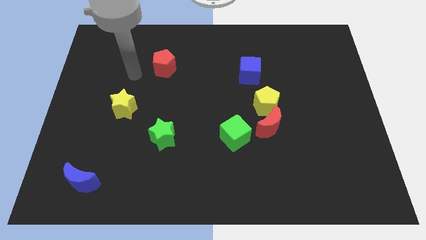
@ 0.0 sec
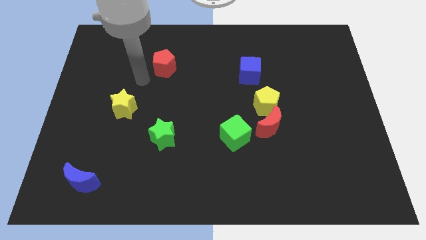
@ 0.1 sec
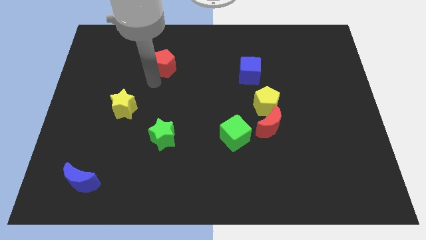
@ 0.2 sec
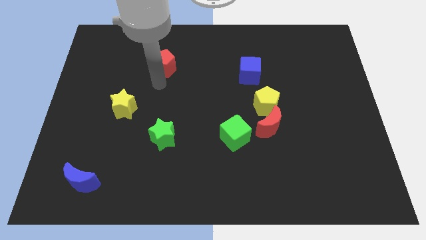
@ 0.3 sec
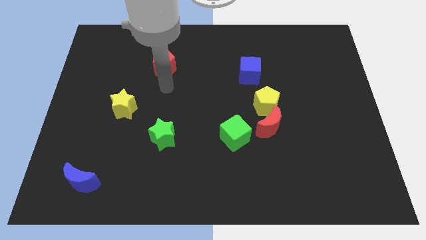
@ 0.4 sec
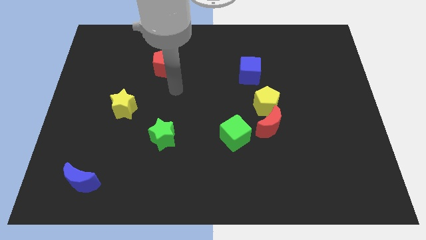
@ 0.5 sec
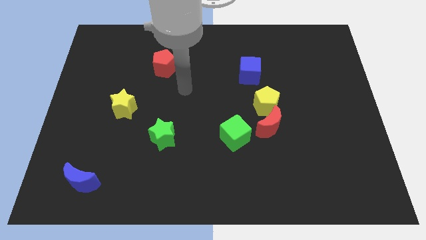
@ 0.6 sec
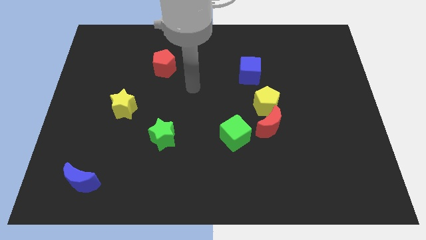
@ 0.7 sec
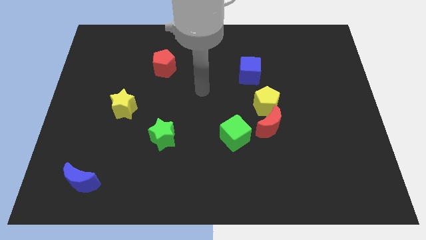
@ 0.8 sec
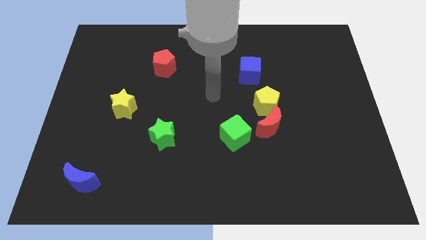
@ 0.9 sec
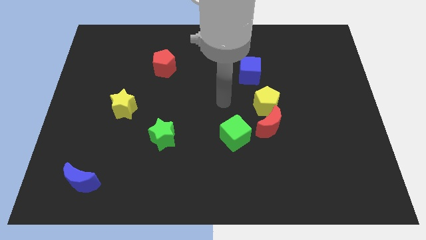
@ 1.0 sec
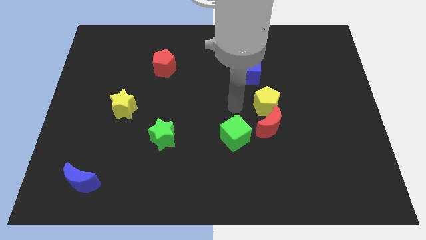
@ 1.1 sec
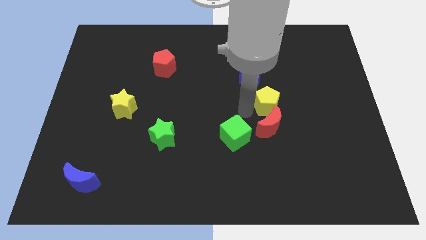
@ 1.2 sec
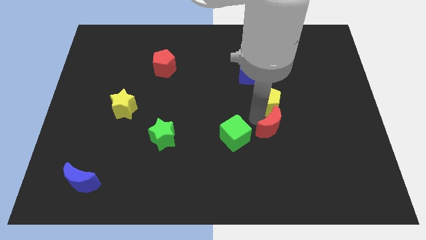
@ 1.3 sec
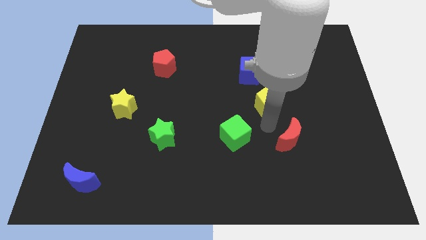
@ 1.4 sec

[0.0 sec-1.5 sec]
separate the yellow pentagon from the red moon

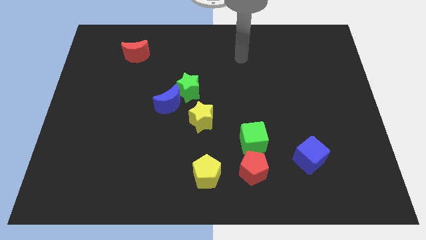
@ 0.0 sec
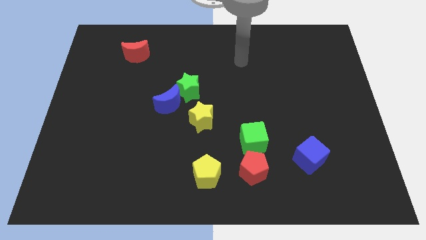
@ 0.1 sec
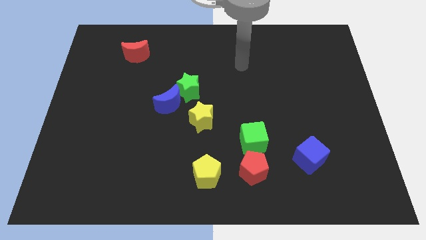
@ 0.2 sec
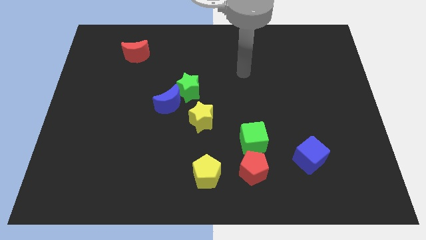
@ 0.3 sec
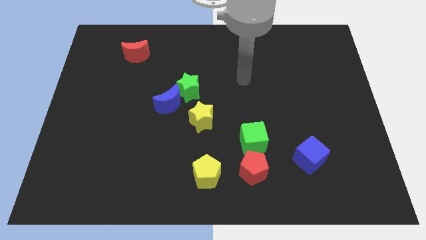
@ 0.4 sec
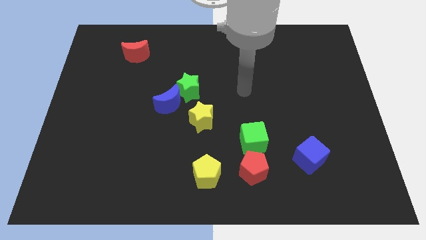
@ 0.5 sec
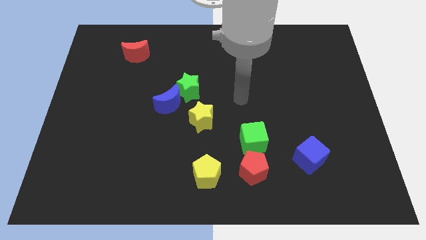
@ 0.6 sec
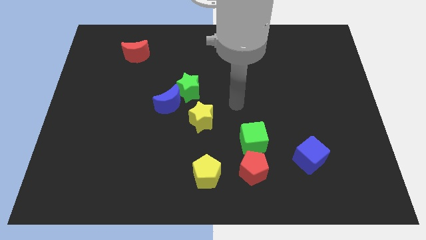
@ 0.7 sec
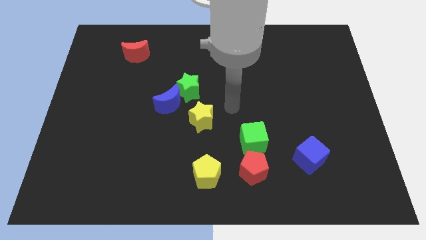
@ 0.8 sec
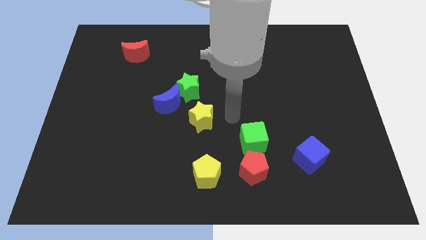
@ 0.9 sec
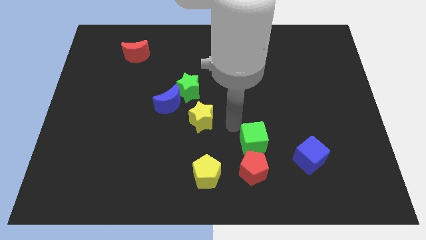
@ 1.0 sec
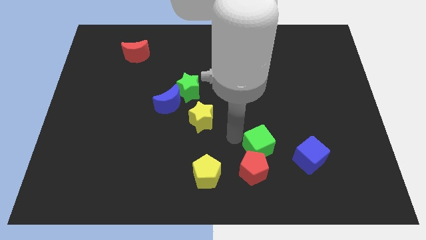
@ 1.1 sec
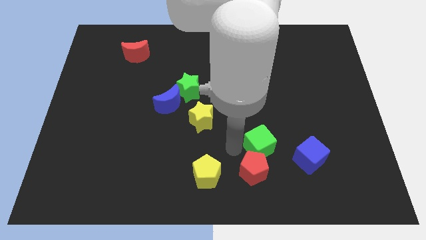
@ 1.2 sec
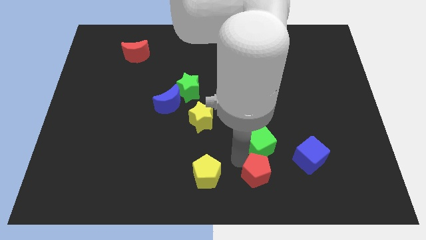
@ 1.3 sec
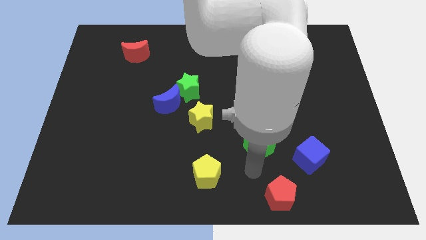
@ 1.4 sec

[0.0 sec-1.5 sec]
pull the green cube apart from the red pentagon

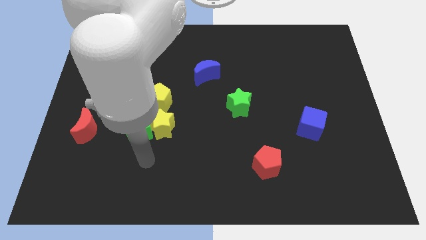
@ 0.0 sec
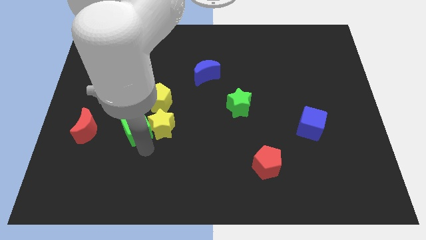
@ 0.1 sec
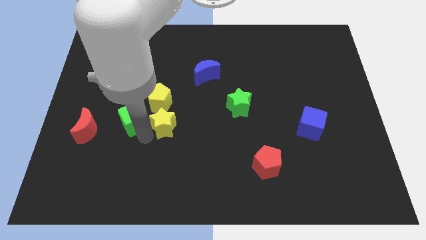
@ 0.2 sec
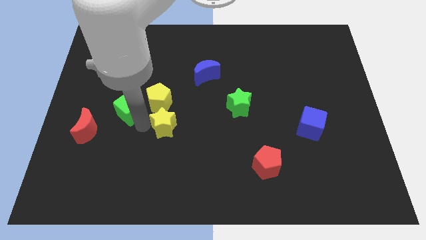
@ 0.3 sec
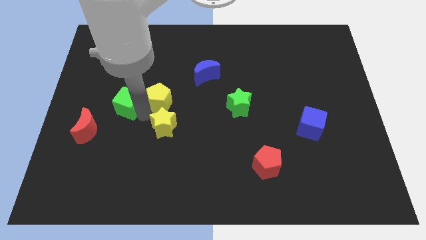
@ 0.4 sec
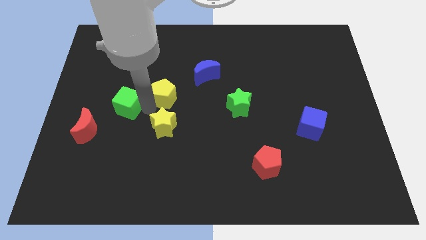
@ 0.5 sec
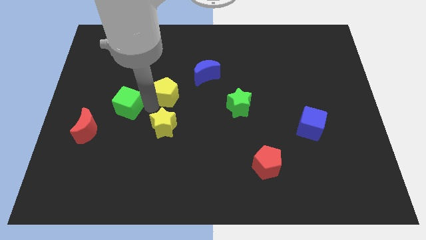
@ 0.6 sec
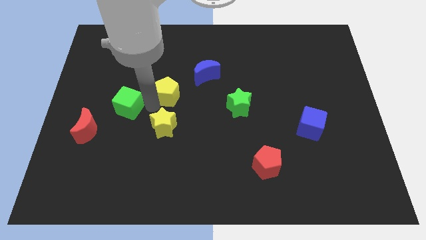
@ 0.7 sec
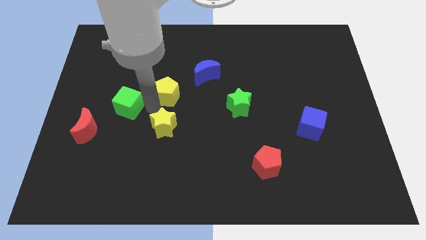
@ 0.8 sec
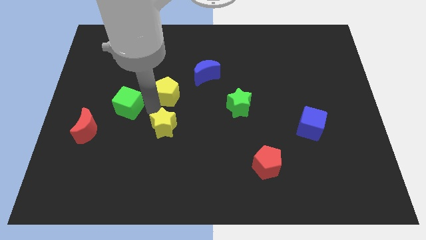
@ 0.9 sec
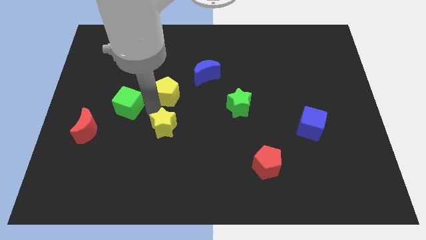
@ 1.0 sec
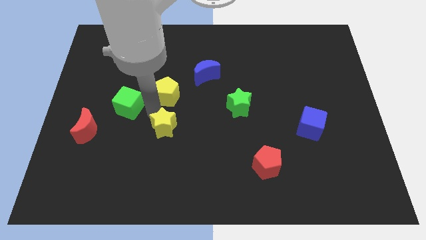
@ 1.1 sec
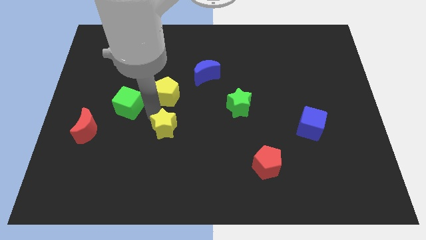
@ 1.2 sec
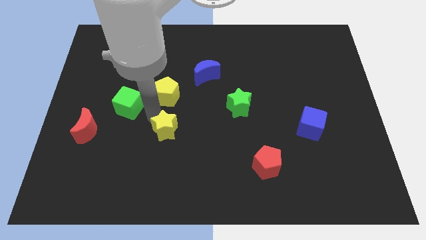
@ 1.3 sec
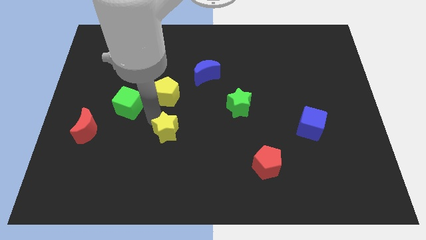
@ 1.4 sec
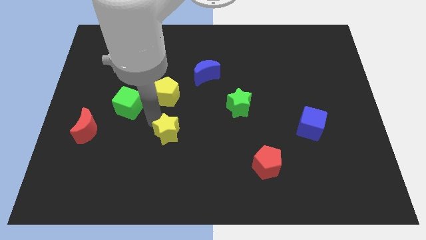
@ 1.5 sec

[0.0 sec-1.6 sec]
move the yellow star away from the green cube and yellow pentagon

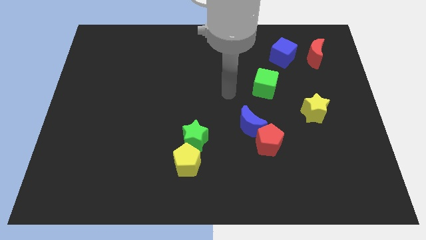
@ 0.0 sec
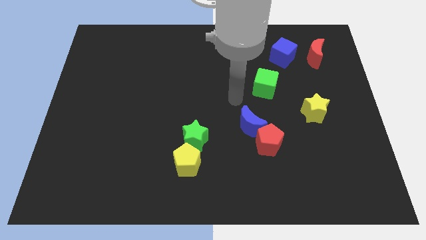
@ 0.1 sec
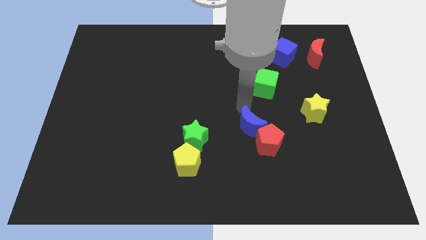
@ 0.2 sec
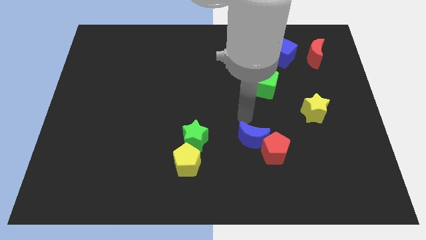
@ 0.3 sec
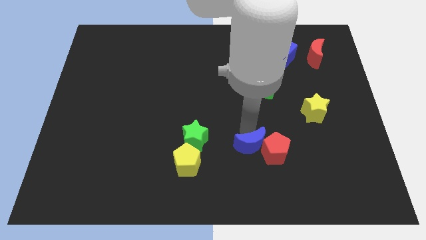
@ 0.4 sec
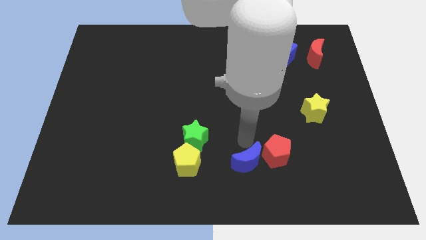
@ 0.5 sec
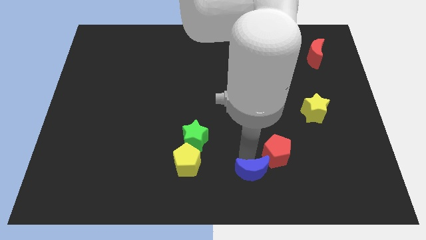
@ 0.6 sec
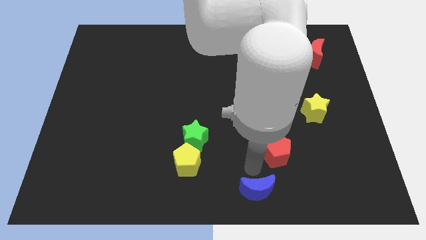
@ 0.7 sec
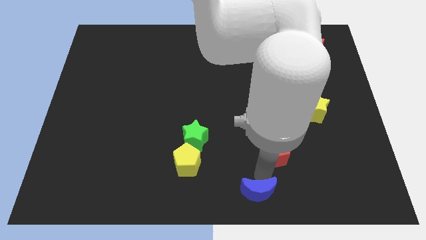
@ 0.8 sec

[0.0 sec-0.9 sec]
separate the red pentagon from the blue moon

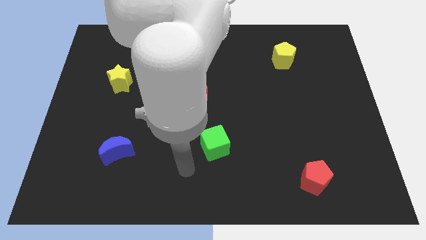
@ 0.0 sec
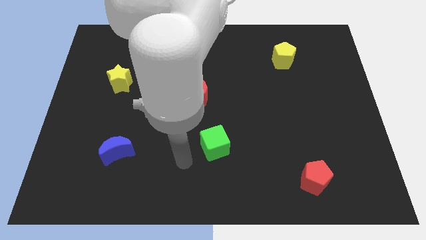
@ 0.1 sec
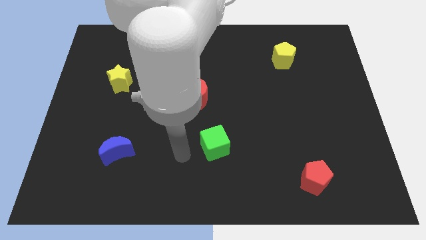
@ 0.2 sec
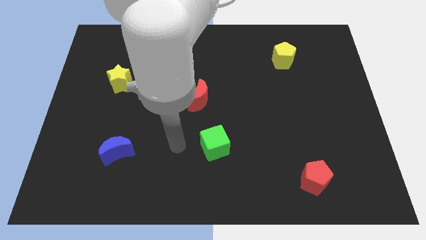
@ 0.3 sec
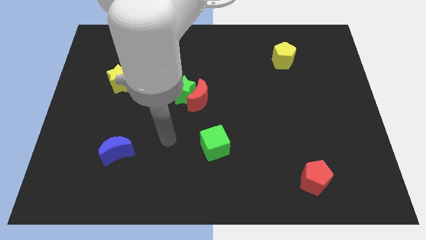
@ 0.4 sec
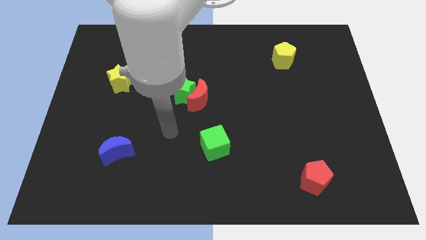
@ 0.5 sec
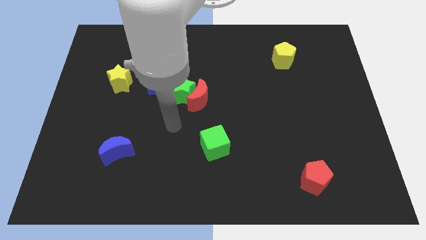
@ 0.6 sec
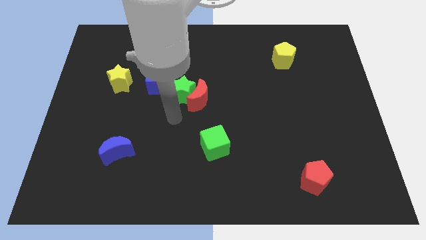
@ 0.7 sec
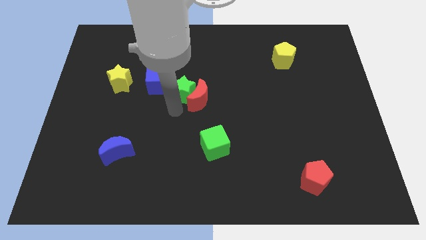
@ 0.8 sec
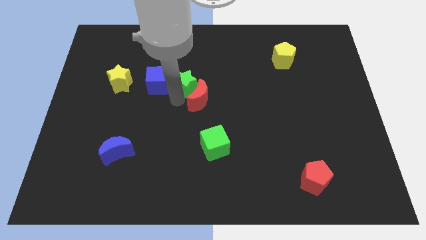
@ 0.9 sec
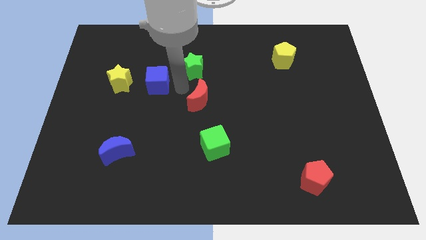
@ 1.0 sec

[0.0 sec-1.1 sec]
pull the red moon apart from the green star

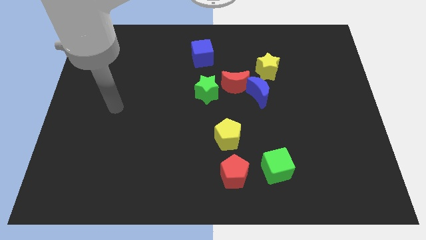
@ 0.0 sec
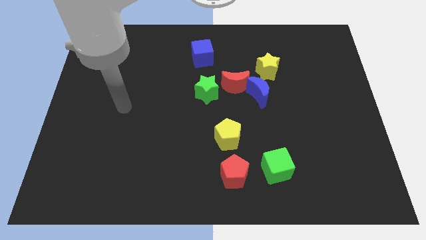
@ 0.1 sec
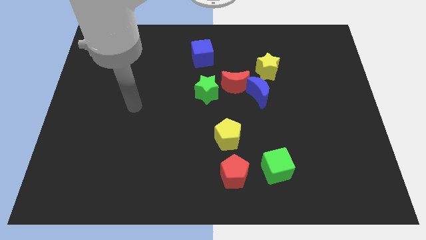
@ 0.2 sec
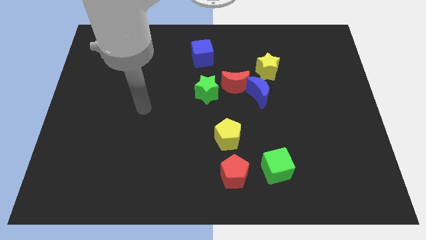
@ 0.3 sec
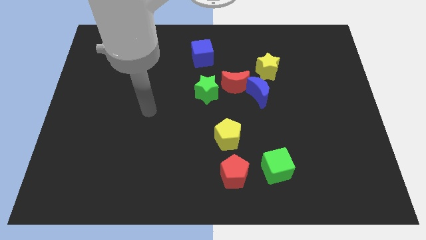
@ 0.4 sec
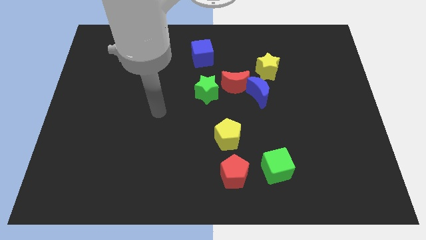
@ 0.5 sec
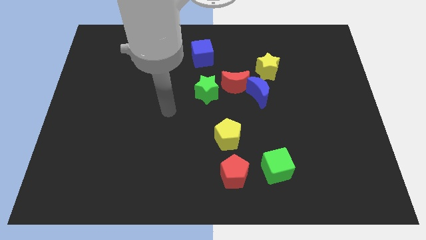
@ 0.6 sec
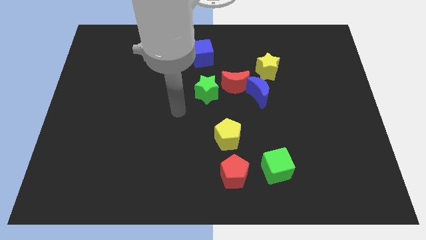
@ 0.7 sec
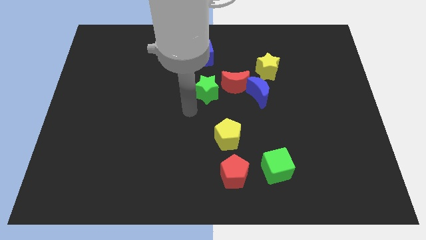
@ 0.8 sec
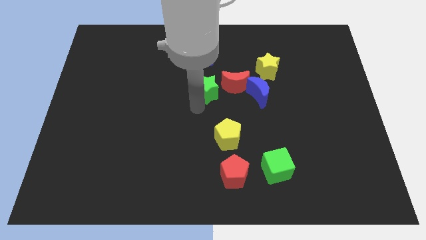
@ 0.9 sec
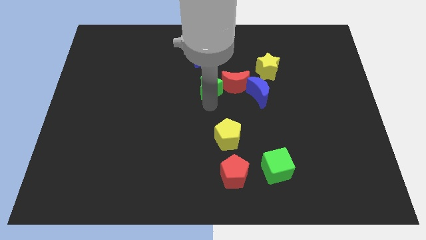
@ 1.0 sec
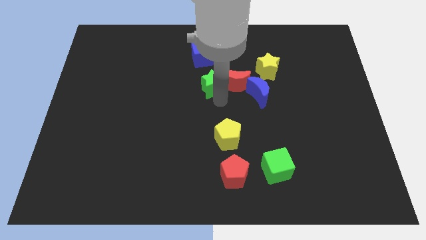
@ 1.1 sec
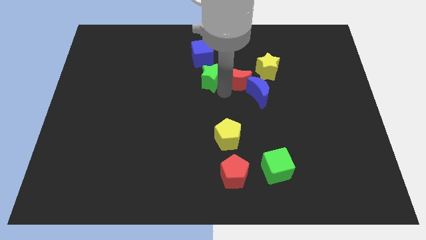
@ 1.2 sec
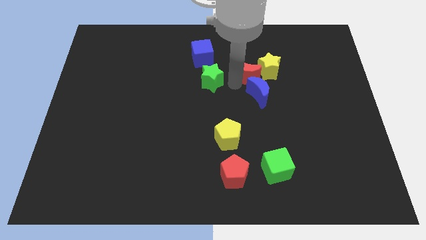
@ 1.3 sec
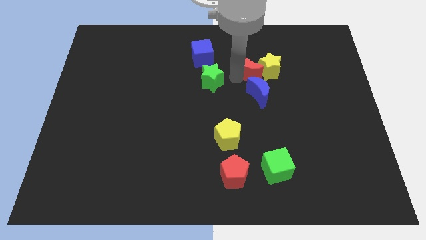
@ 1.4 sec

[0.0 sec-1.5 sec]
separate the green star from the red moon

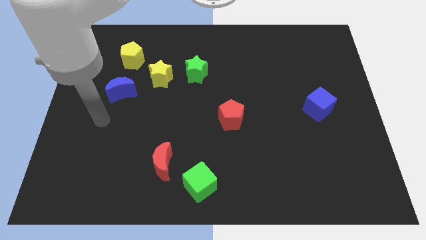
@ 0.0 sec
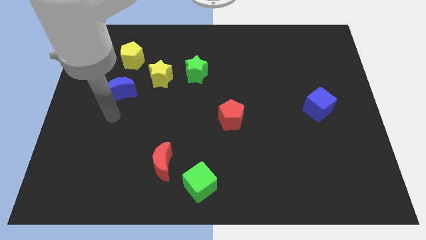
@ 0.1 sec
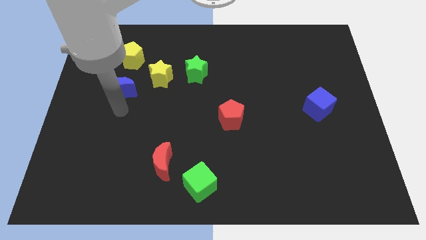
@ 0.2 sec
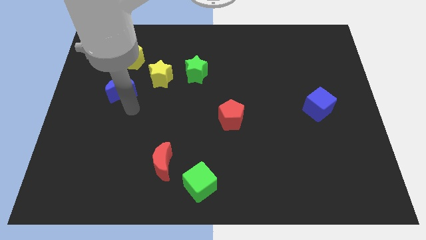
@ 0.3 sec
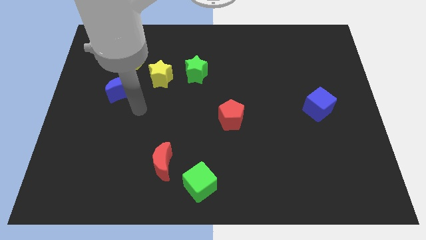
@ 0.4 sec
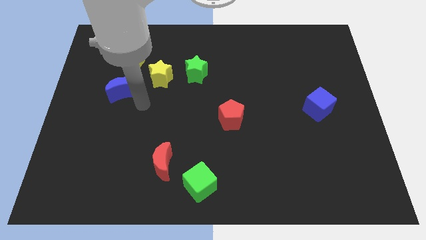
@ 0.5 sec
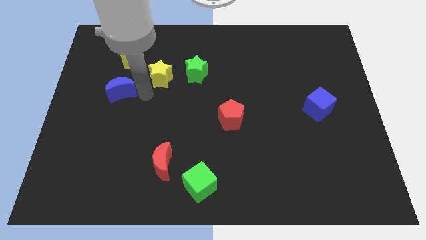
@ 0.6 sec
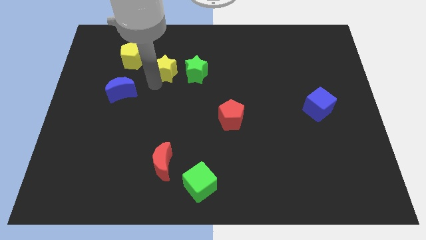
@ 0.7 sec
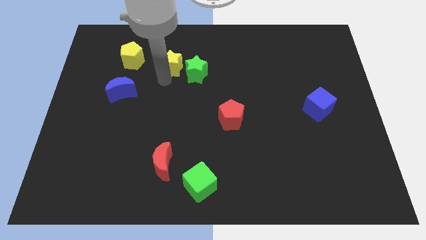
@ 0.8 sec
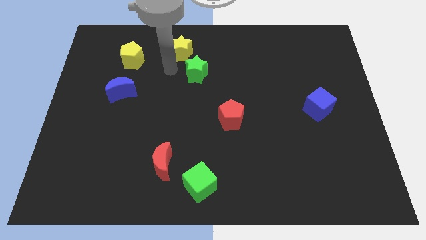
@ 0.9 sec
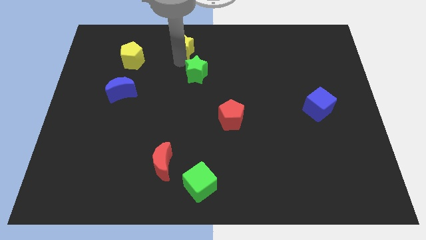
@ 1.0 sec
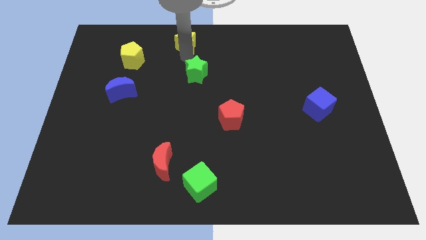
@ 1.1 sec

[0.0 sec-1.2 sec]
pull the green star apart from the yellow star
